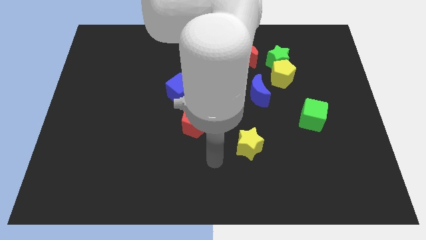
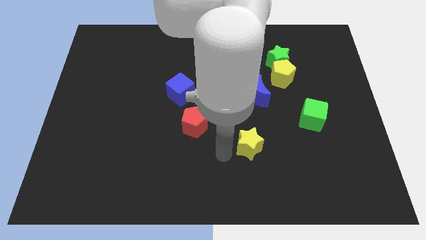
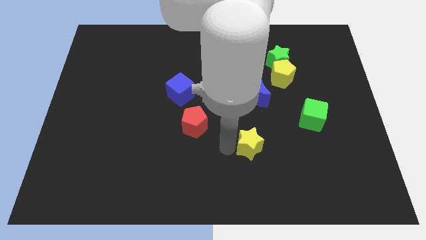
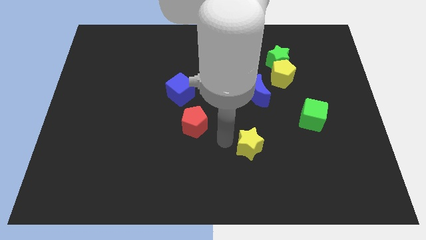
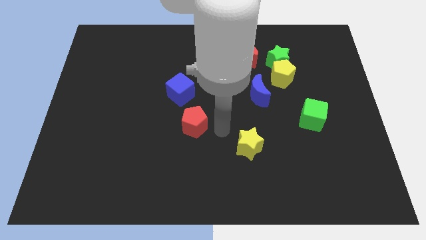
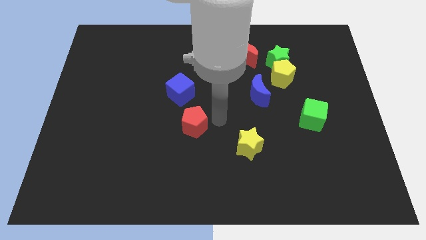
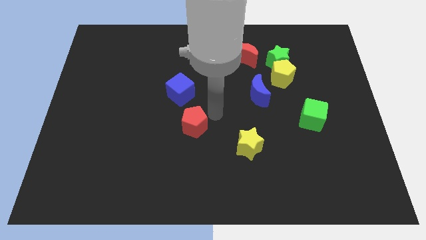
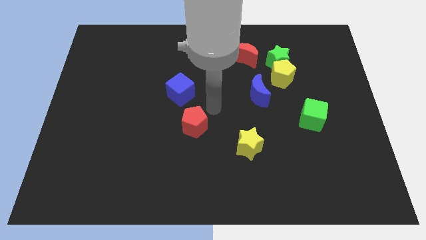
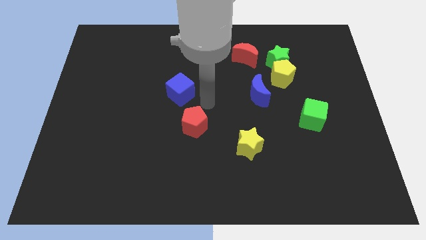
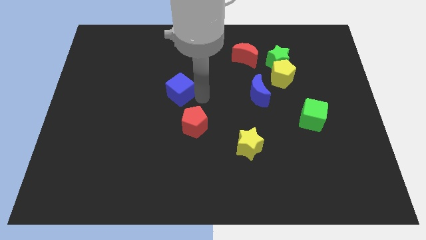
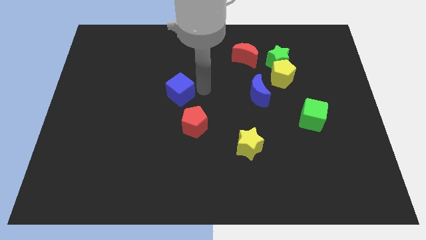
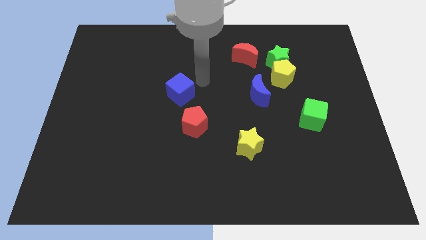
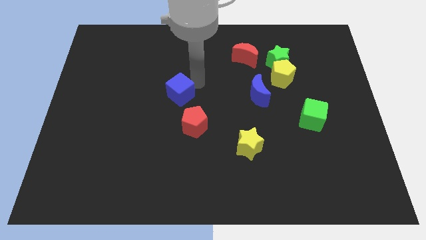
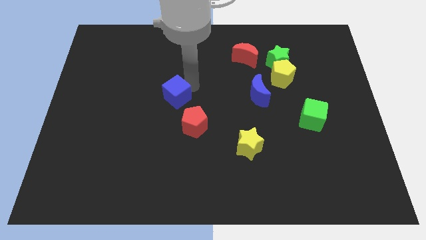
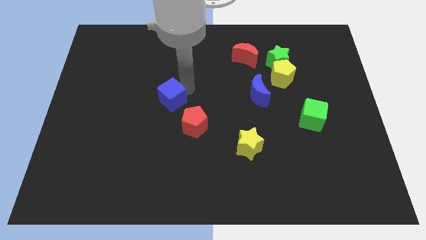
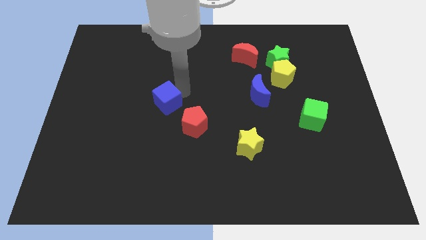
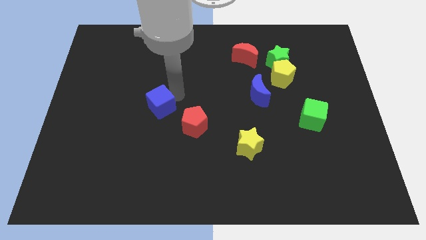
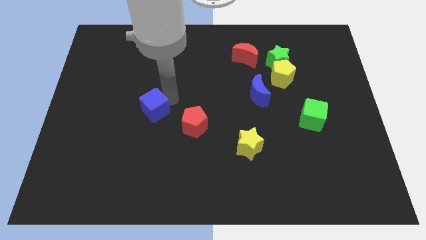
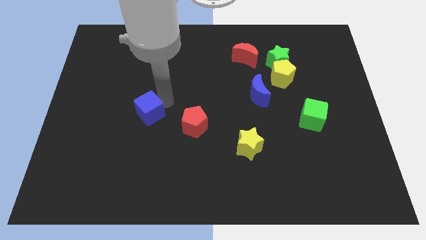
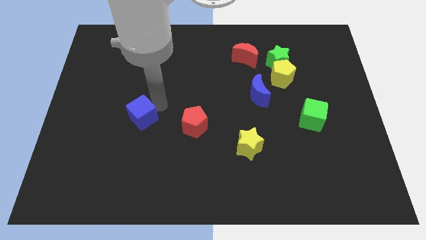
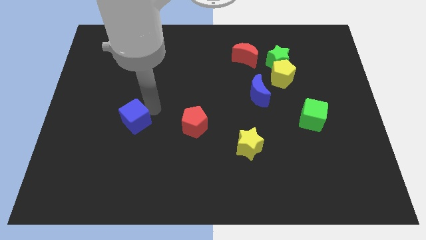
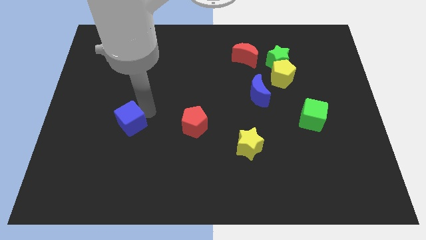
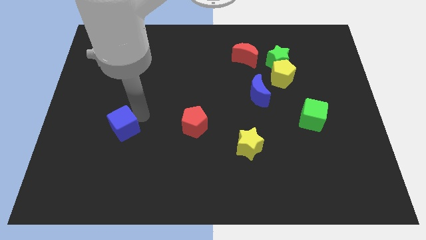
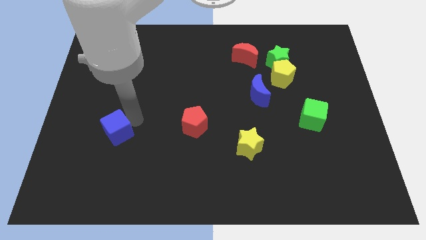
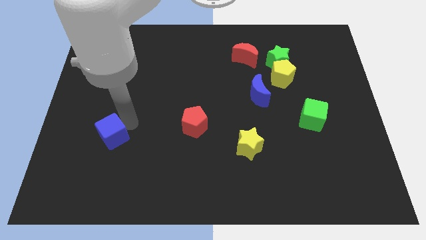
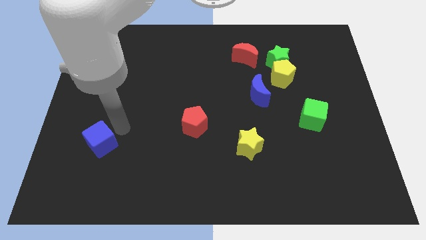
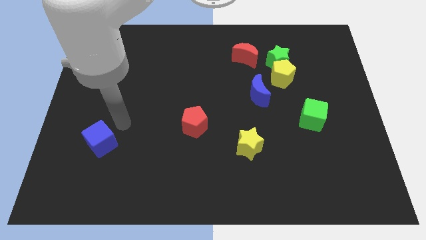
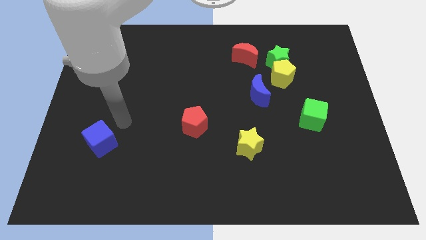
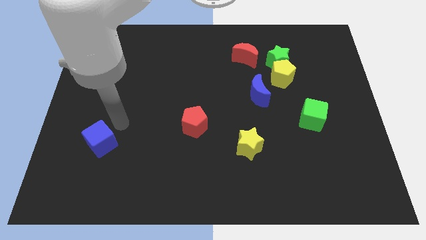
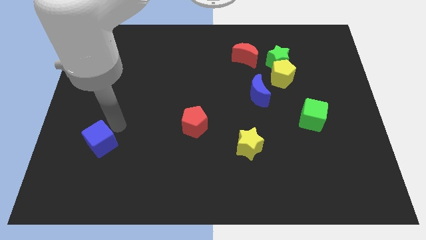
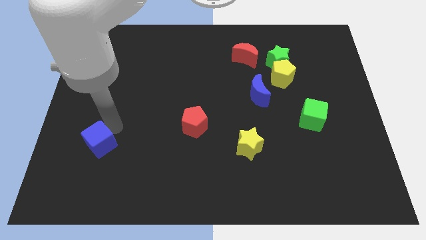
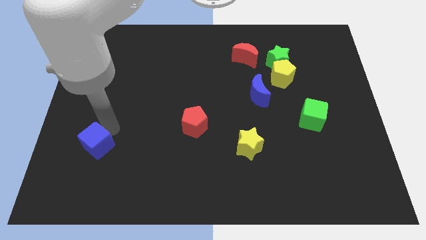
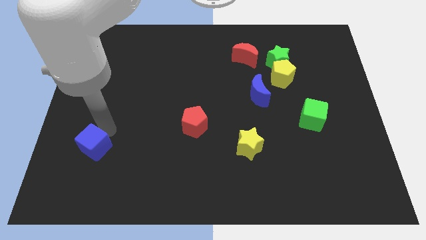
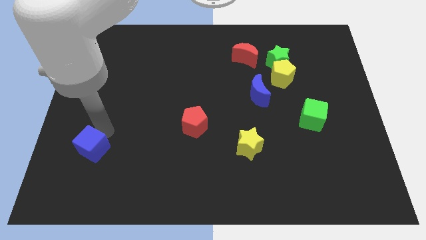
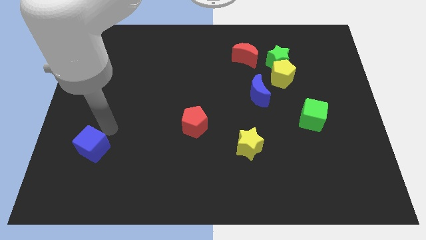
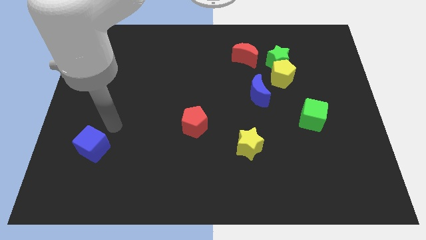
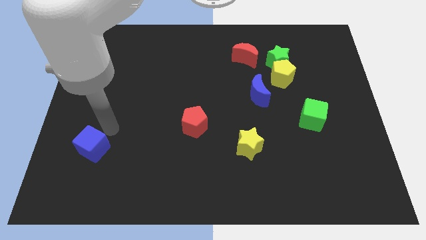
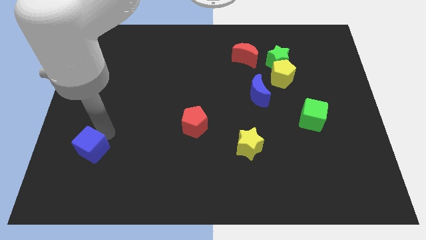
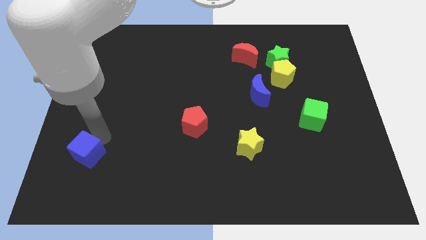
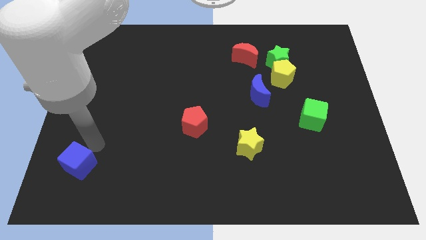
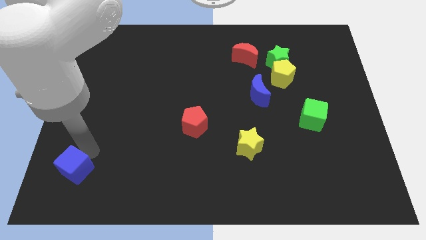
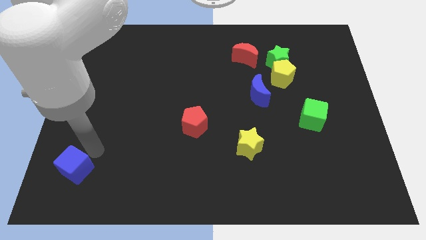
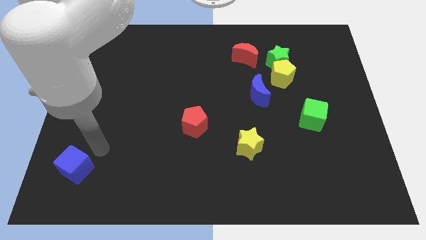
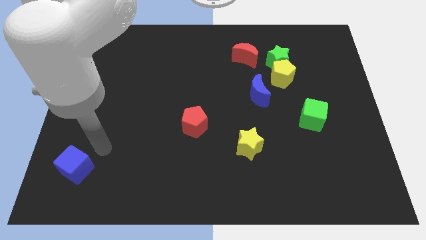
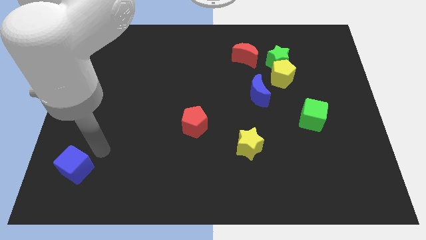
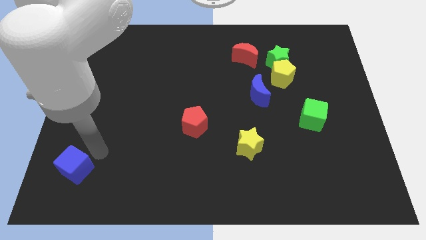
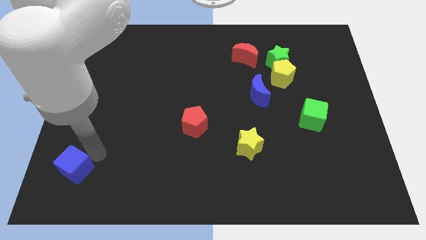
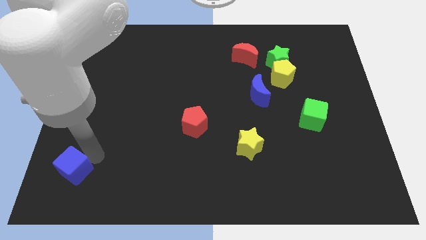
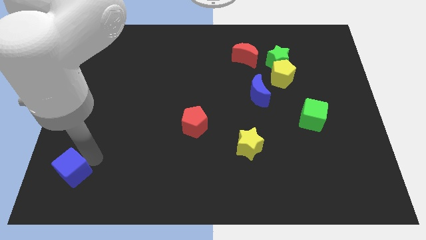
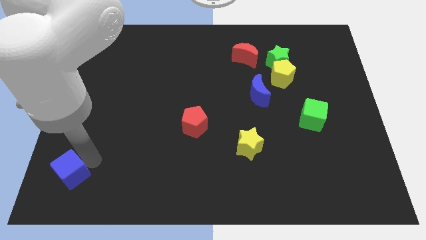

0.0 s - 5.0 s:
move the blue cube to the lower left corner

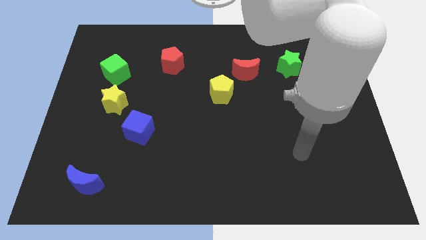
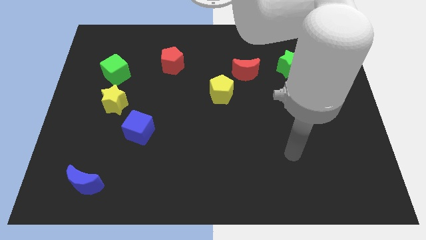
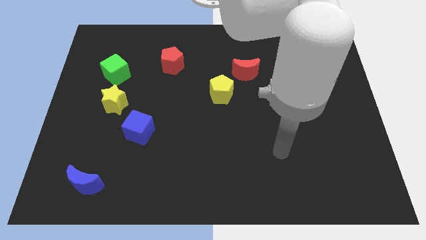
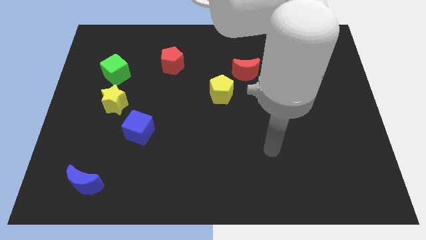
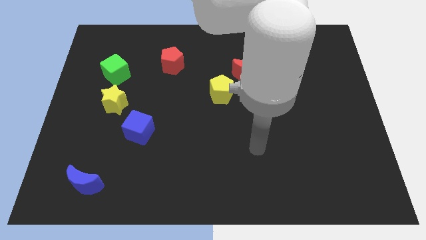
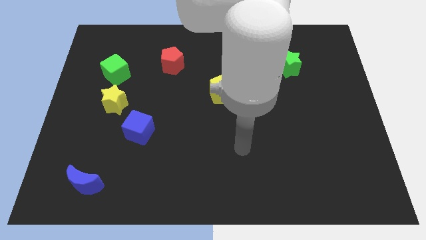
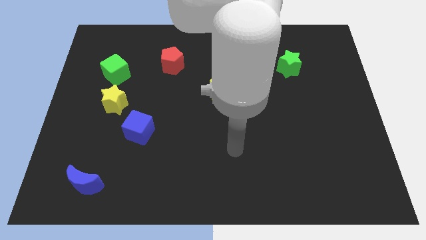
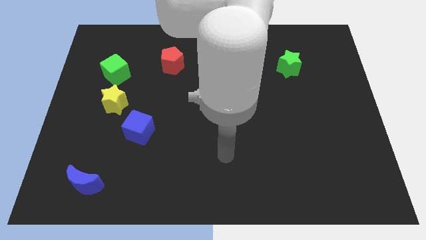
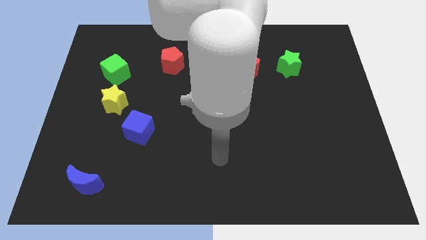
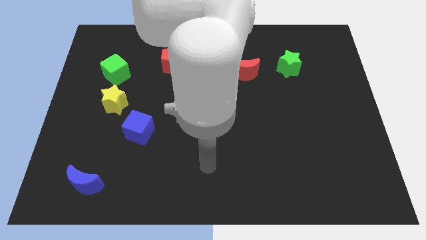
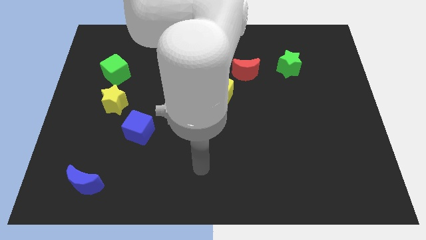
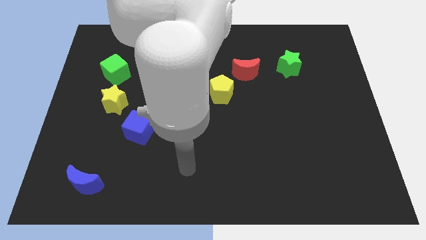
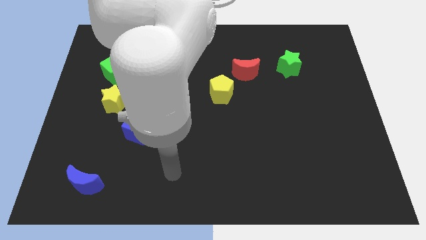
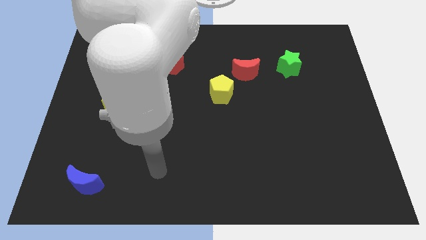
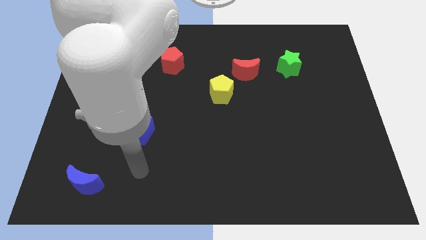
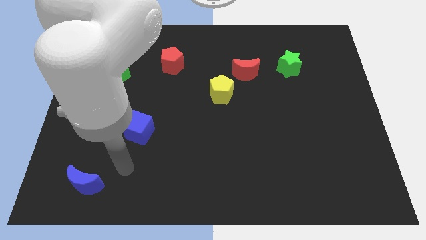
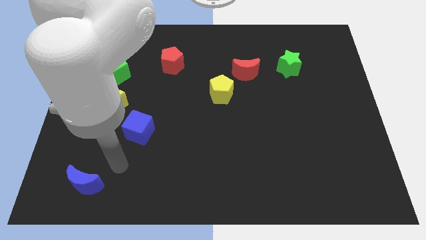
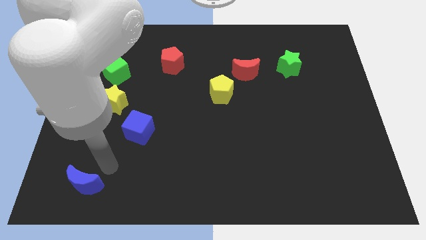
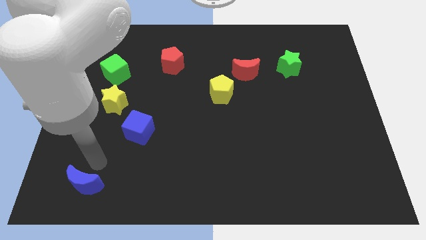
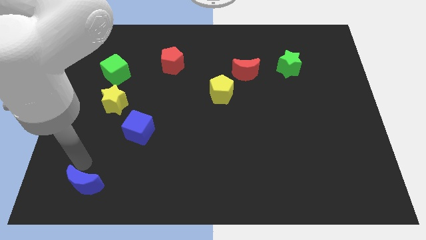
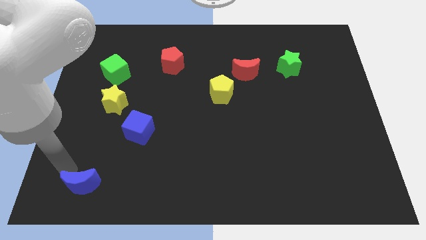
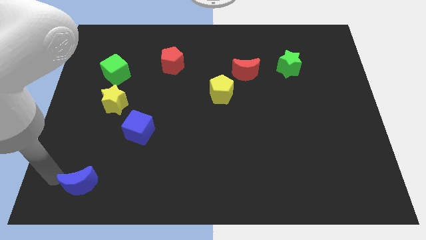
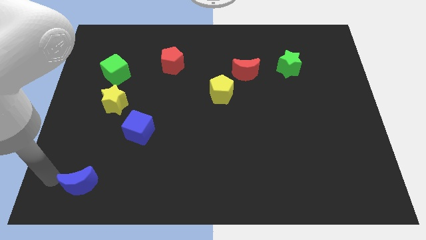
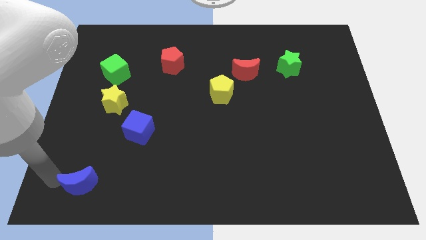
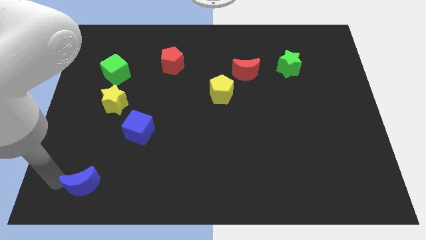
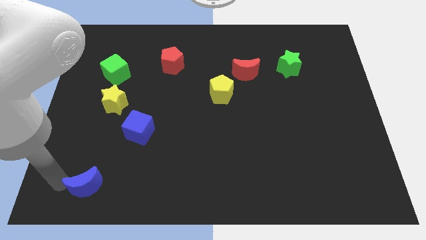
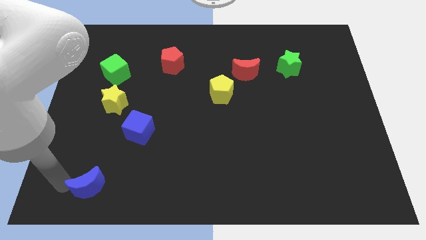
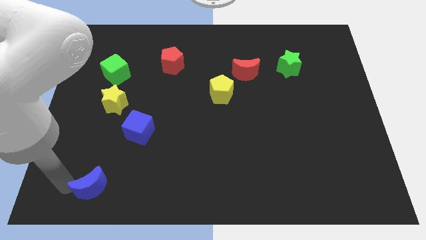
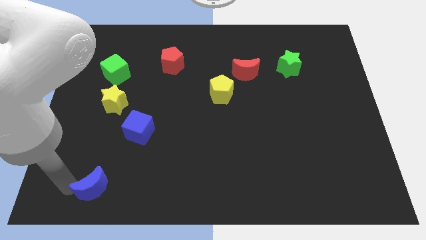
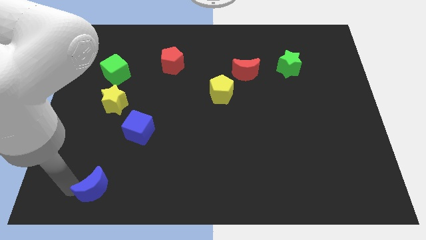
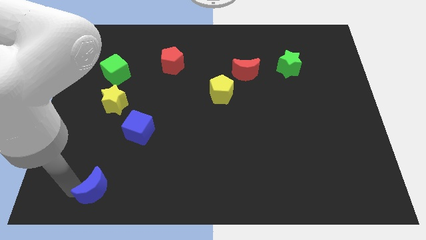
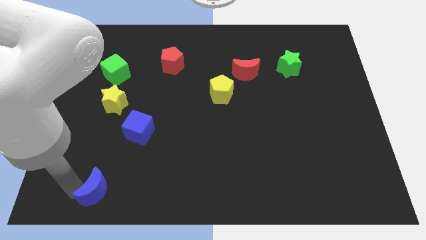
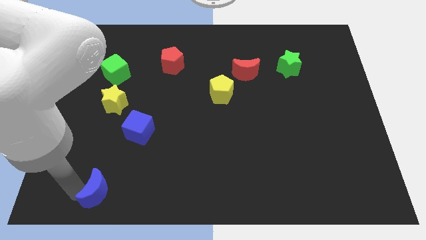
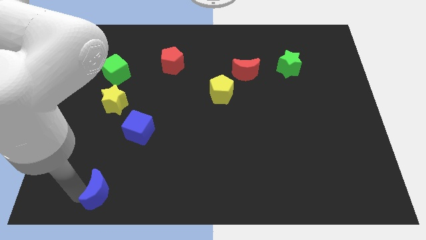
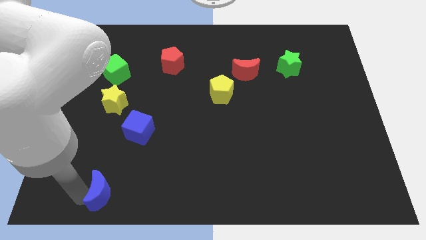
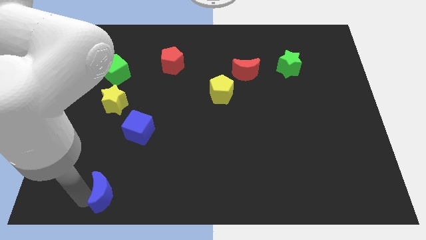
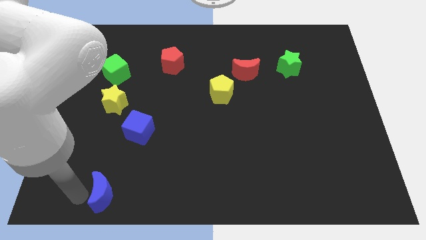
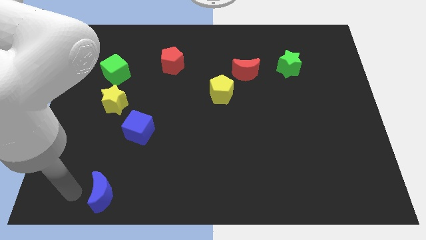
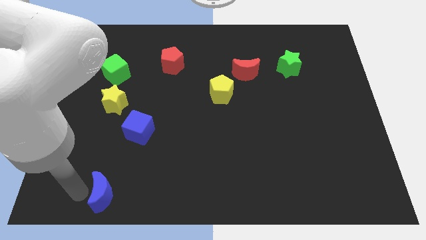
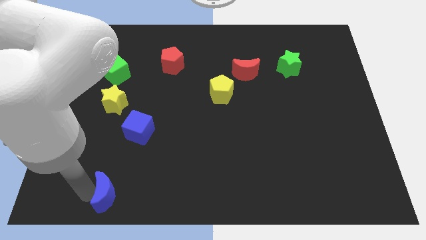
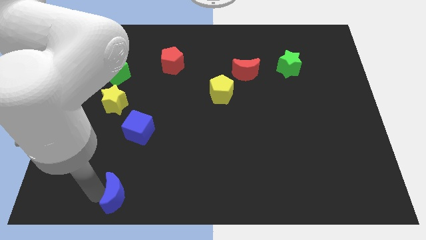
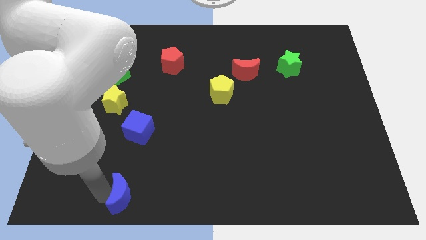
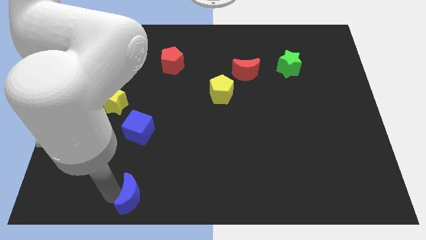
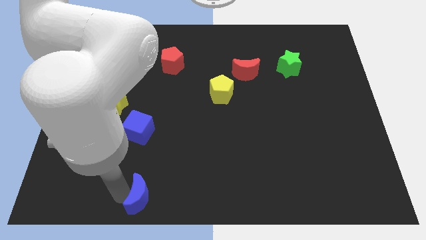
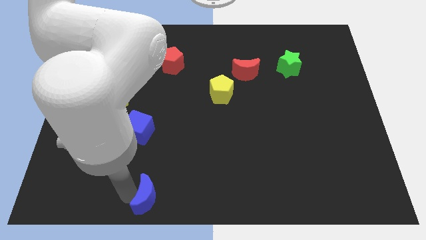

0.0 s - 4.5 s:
slide the blue moon to the bottom side
